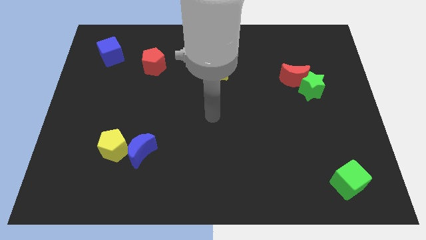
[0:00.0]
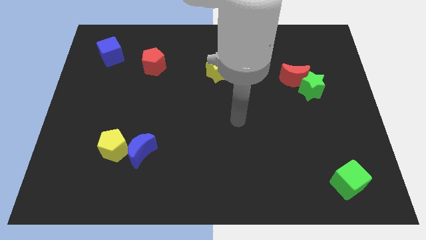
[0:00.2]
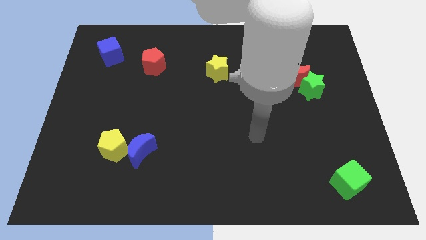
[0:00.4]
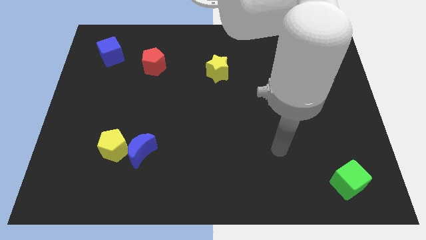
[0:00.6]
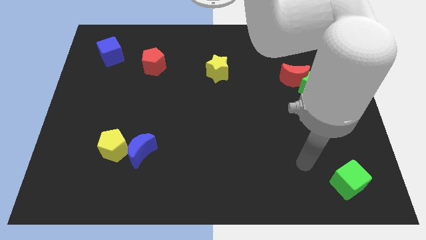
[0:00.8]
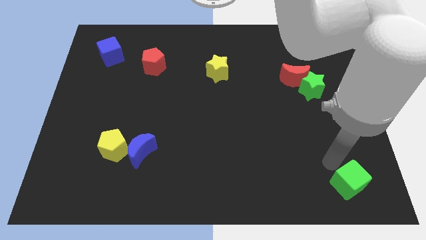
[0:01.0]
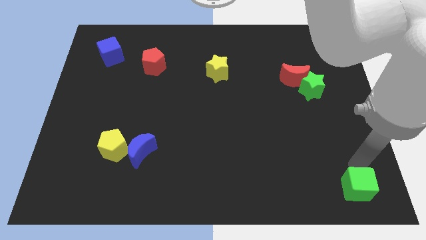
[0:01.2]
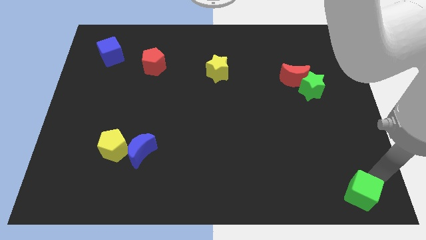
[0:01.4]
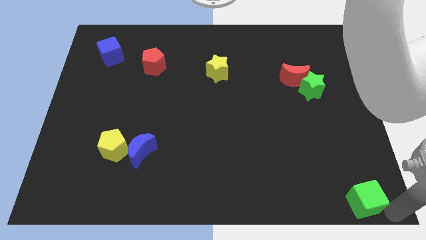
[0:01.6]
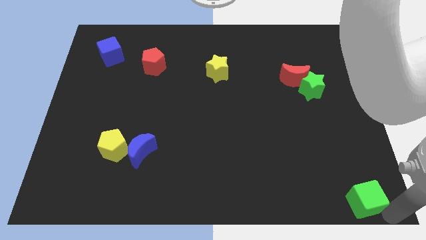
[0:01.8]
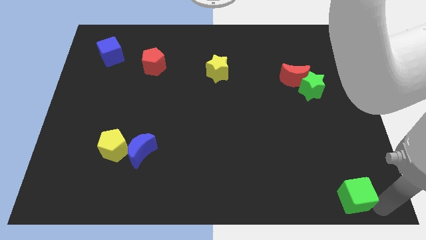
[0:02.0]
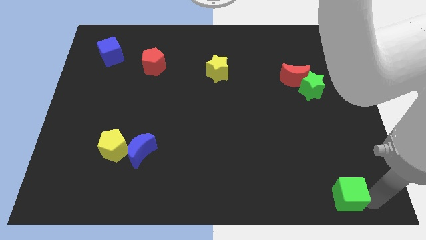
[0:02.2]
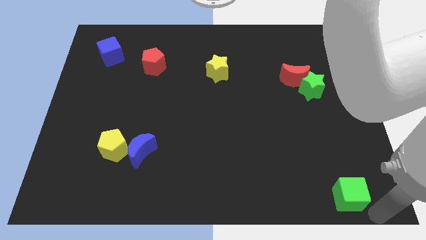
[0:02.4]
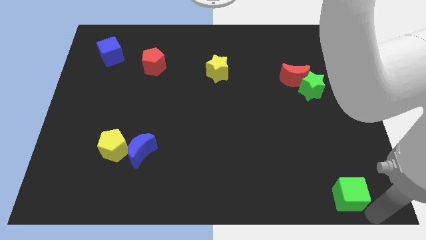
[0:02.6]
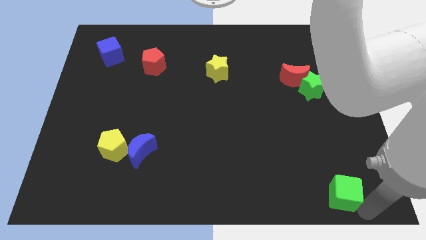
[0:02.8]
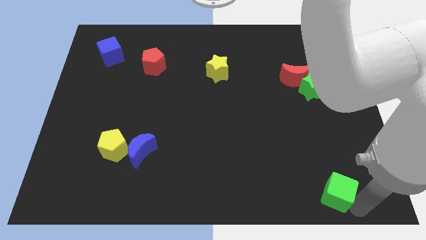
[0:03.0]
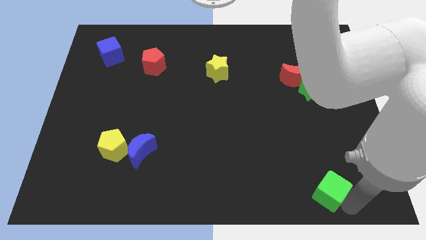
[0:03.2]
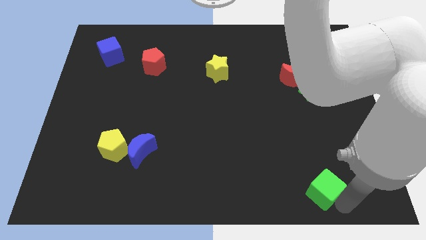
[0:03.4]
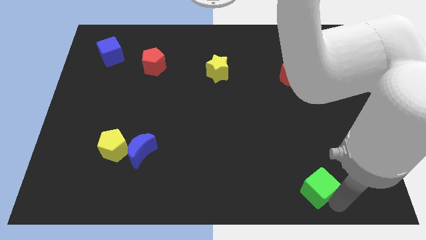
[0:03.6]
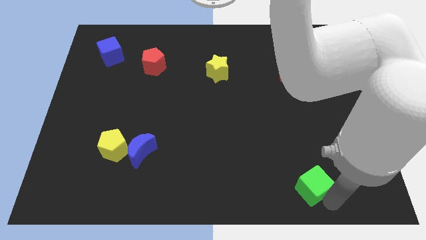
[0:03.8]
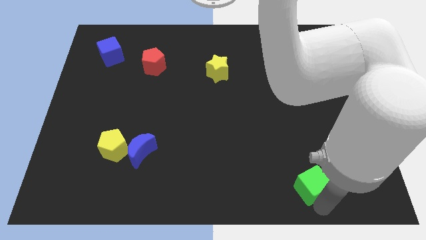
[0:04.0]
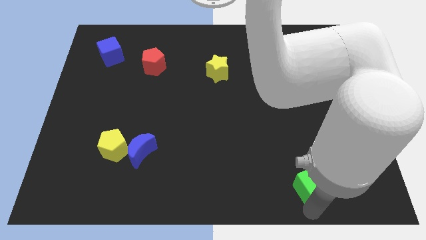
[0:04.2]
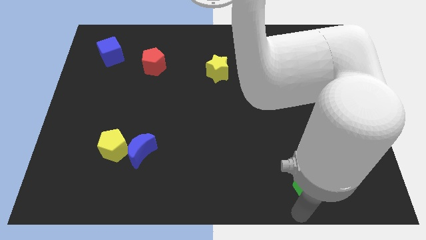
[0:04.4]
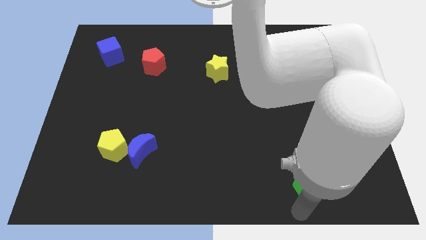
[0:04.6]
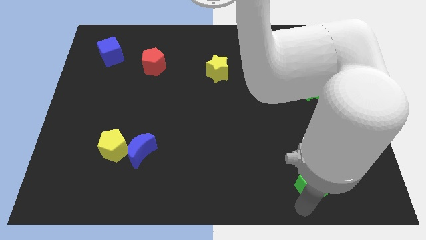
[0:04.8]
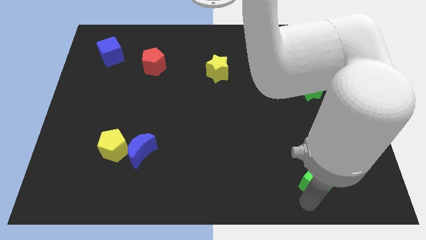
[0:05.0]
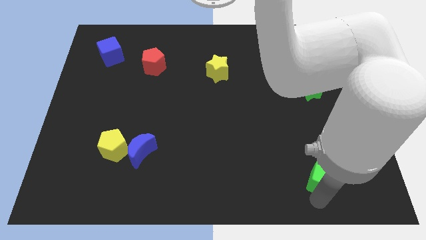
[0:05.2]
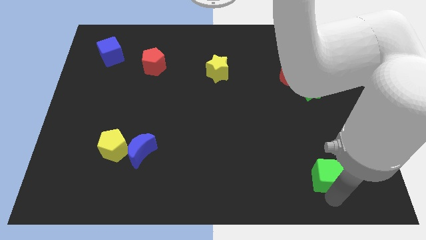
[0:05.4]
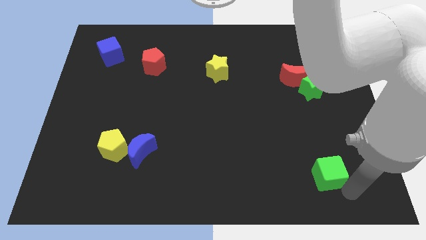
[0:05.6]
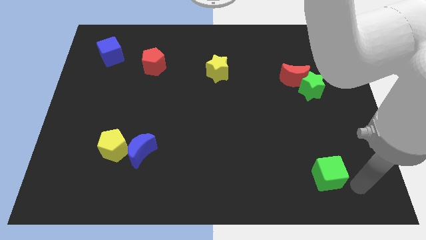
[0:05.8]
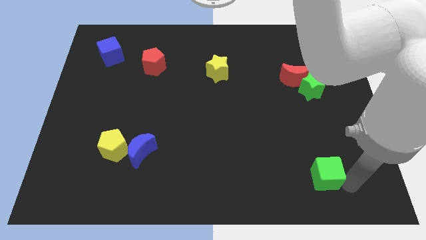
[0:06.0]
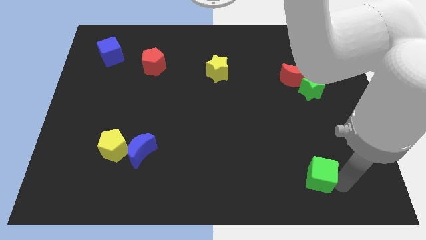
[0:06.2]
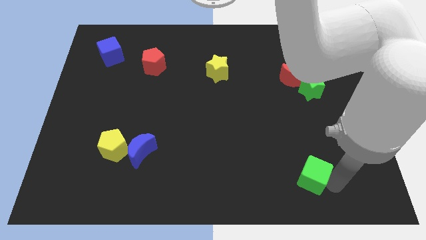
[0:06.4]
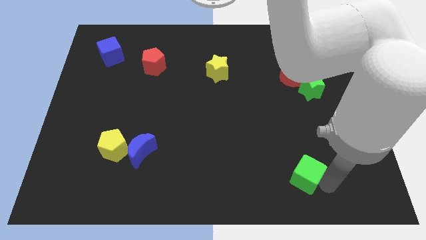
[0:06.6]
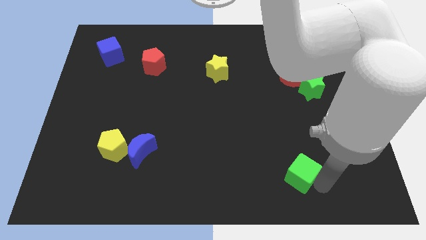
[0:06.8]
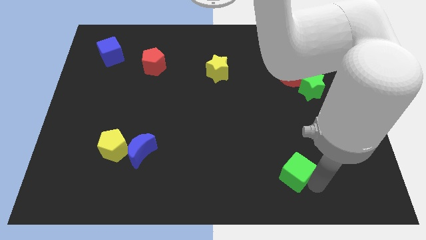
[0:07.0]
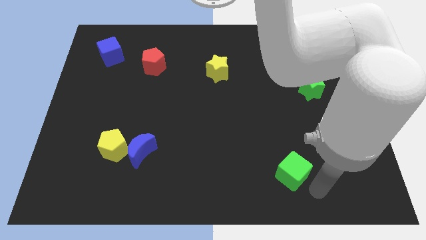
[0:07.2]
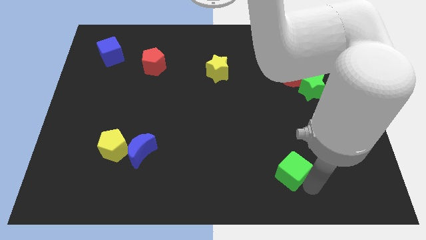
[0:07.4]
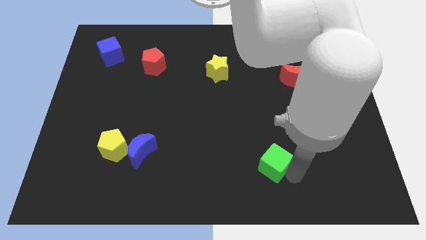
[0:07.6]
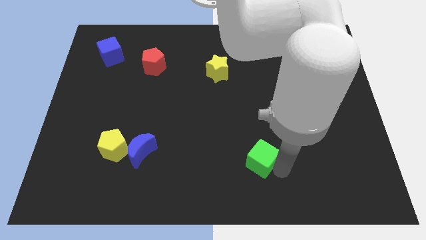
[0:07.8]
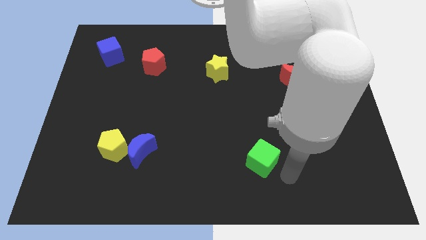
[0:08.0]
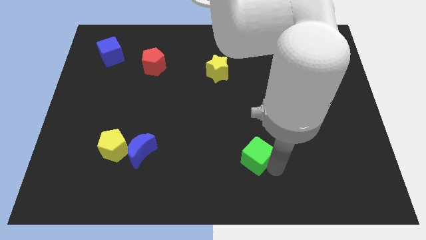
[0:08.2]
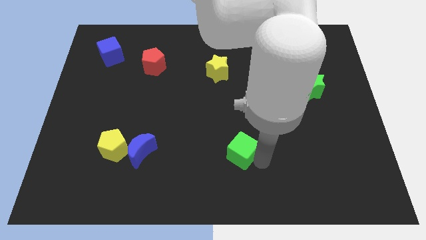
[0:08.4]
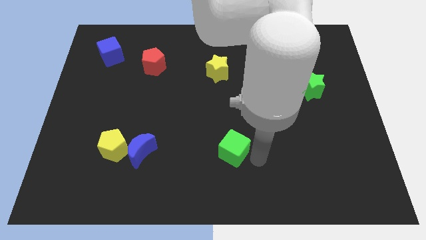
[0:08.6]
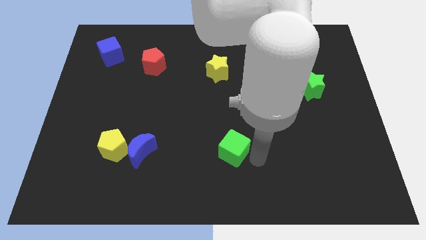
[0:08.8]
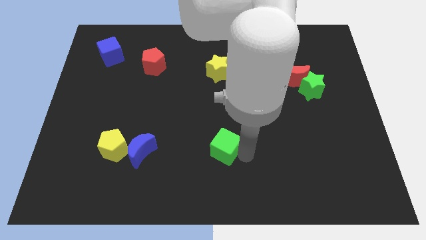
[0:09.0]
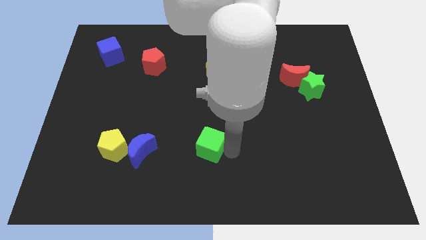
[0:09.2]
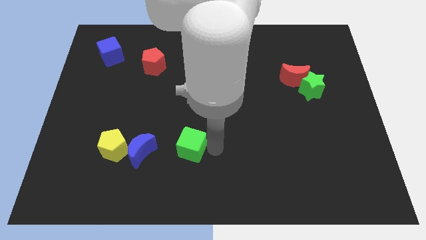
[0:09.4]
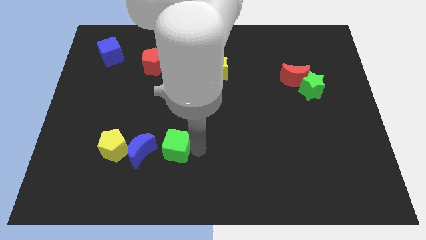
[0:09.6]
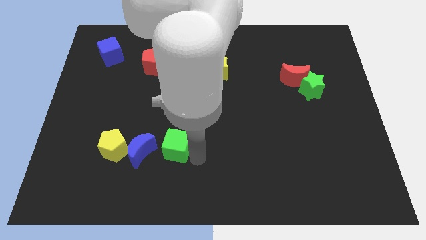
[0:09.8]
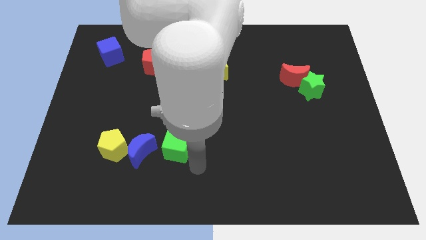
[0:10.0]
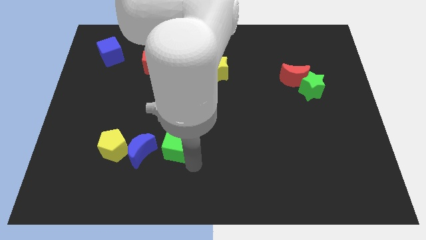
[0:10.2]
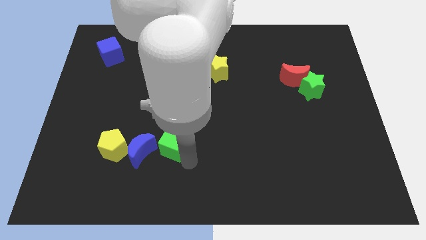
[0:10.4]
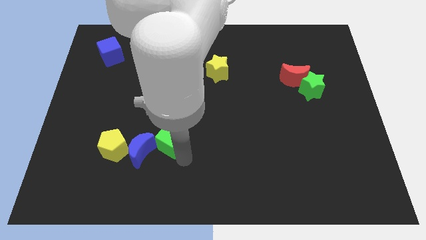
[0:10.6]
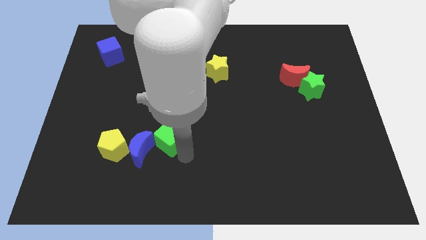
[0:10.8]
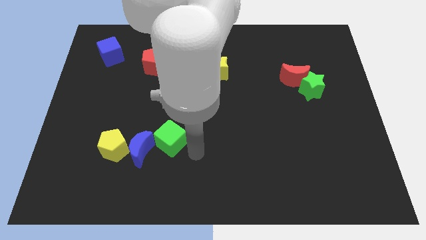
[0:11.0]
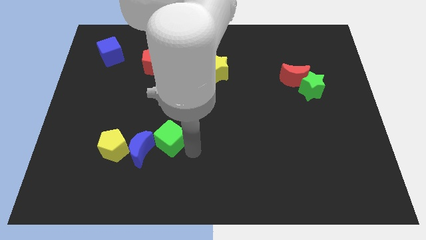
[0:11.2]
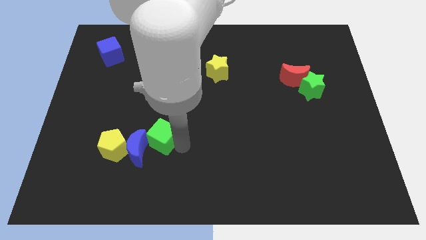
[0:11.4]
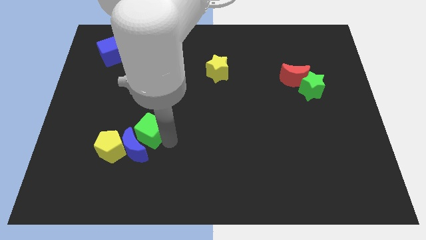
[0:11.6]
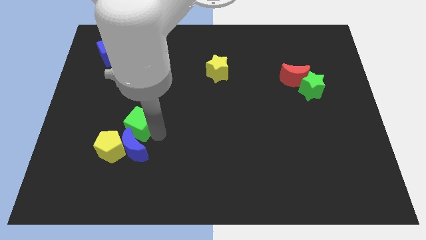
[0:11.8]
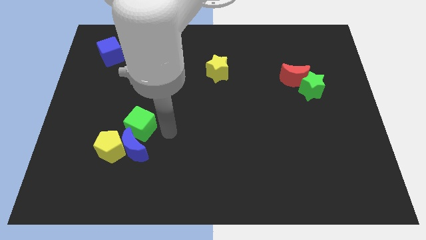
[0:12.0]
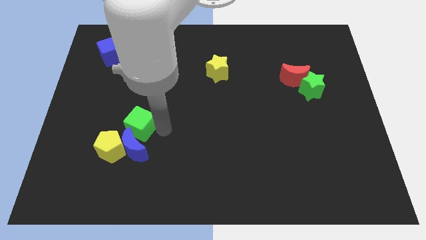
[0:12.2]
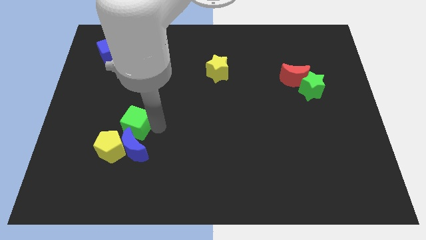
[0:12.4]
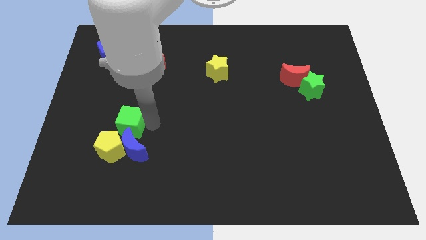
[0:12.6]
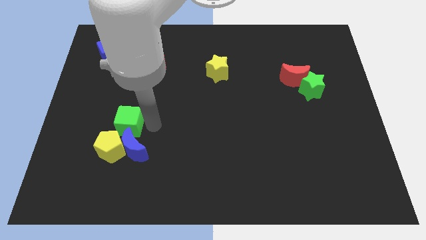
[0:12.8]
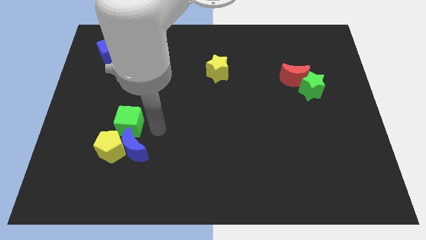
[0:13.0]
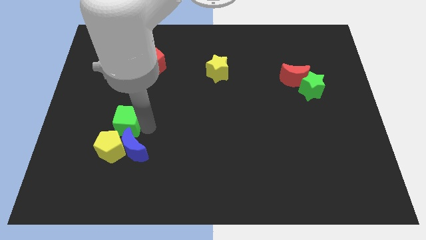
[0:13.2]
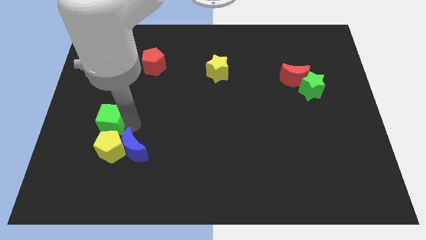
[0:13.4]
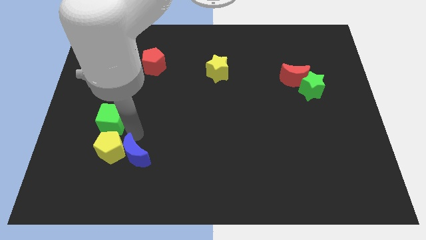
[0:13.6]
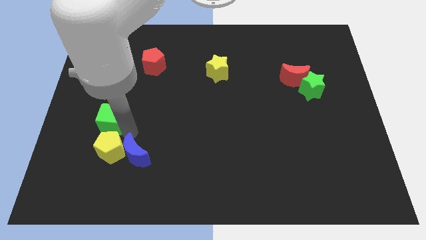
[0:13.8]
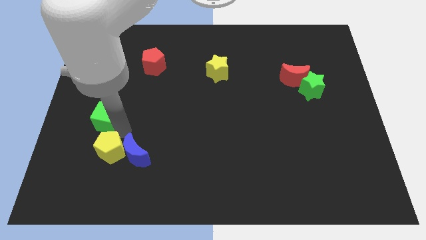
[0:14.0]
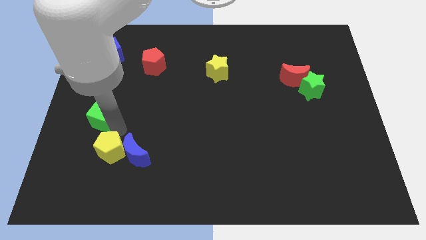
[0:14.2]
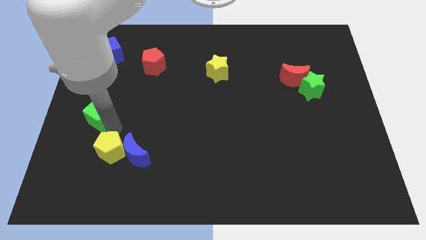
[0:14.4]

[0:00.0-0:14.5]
push the green cube to the center left
